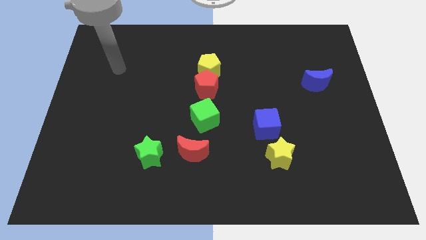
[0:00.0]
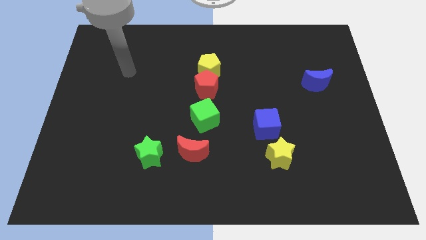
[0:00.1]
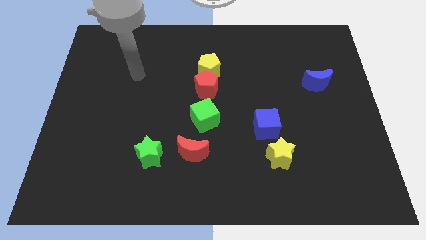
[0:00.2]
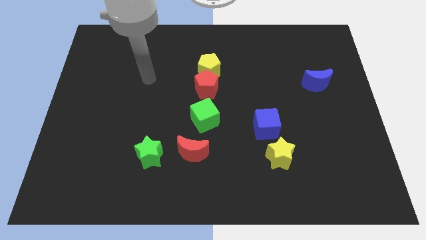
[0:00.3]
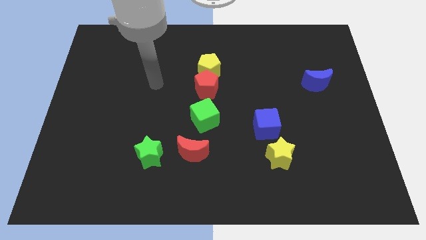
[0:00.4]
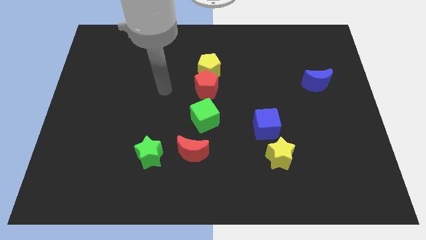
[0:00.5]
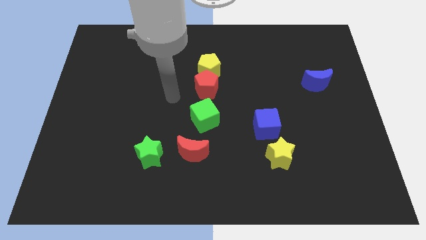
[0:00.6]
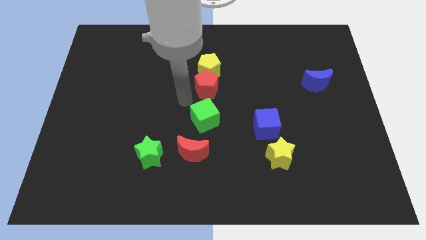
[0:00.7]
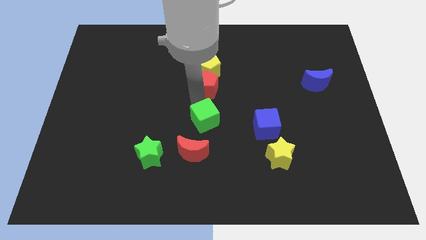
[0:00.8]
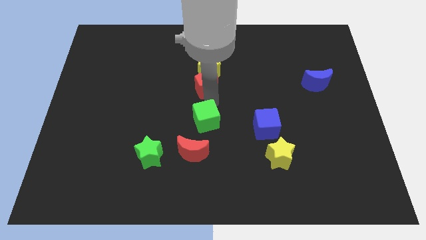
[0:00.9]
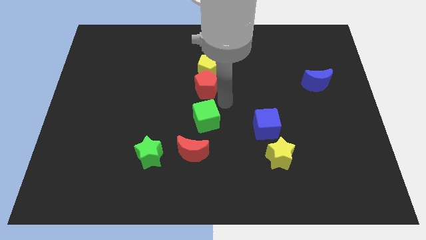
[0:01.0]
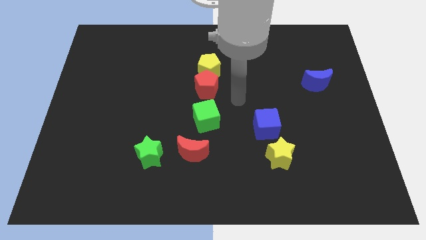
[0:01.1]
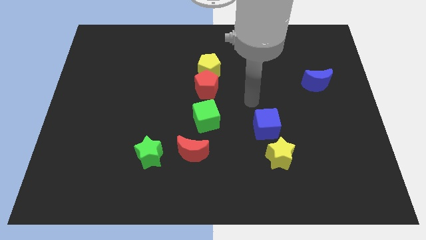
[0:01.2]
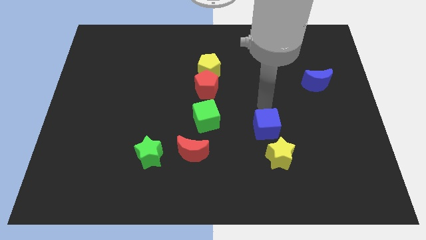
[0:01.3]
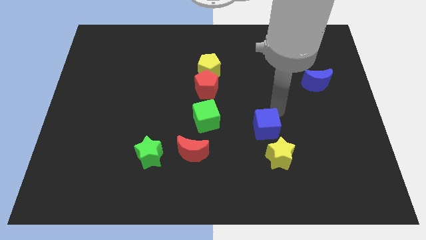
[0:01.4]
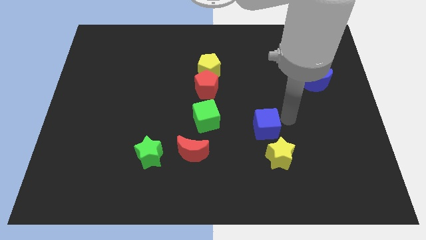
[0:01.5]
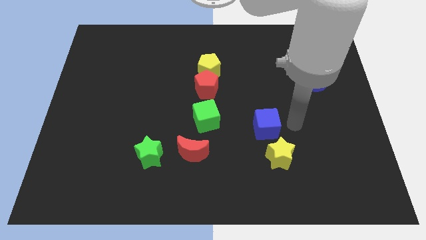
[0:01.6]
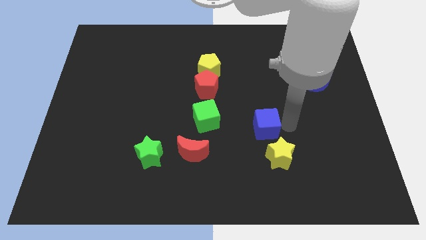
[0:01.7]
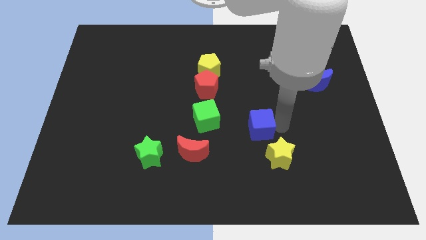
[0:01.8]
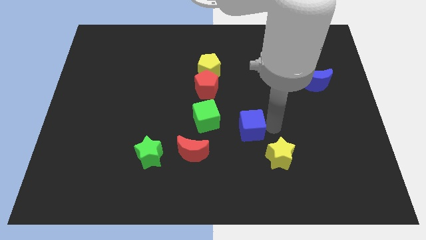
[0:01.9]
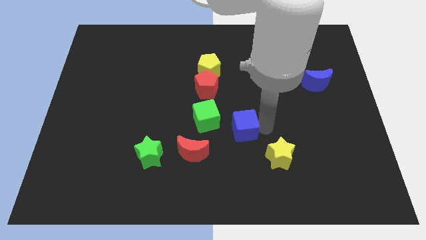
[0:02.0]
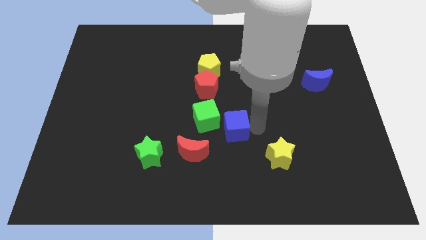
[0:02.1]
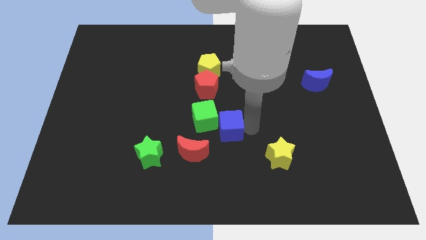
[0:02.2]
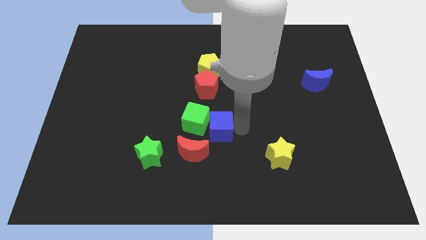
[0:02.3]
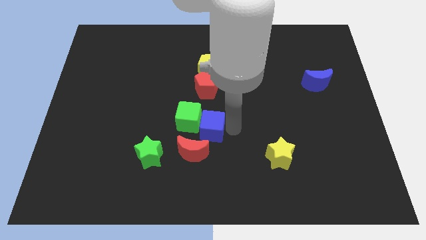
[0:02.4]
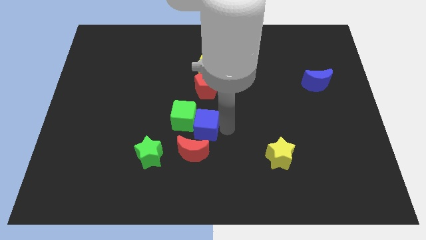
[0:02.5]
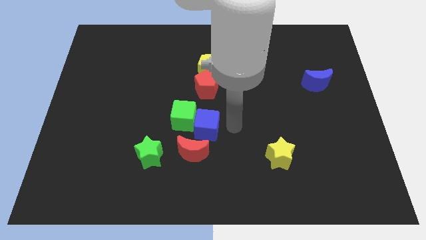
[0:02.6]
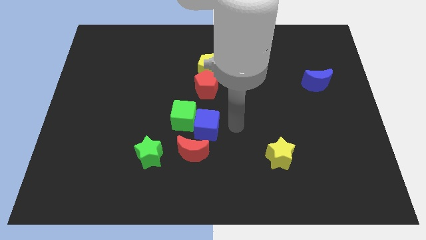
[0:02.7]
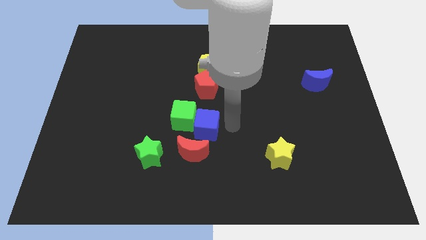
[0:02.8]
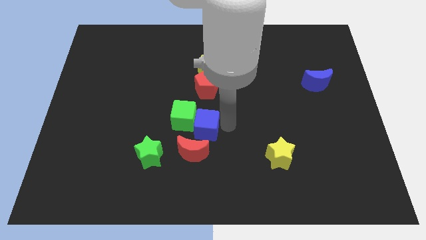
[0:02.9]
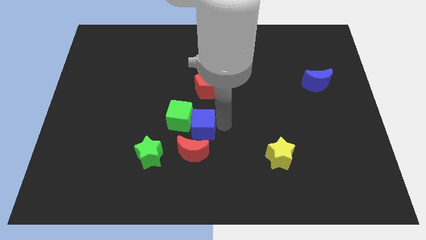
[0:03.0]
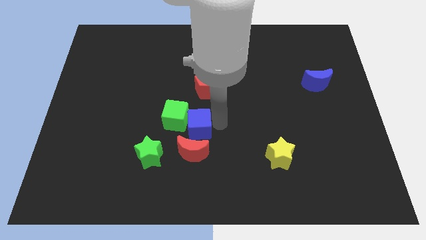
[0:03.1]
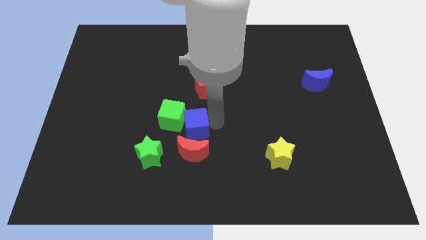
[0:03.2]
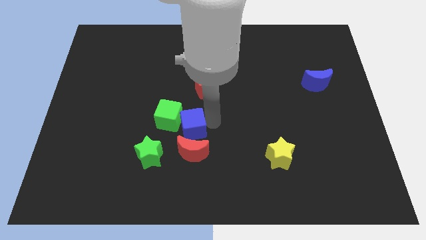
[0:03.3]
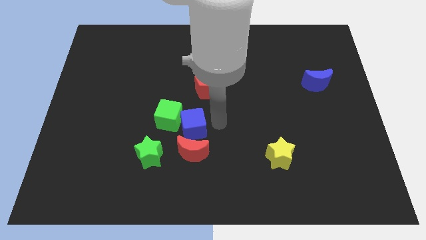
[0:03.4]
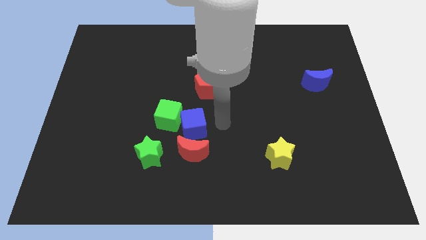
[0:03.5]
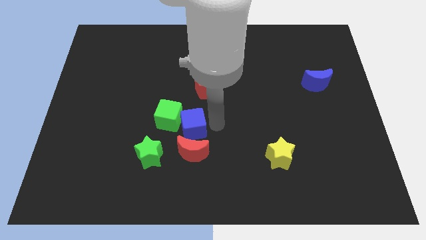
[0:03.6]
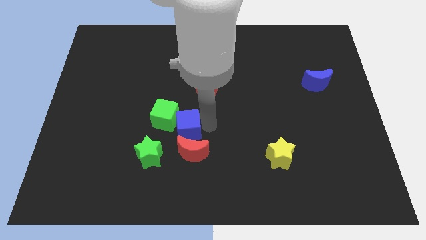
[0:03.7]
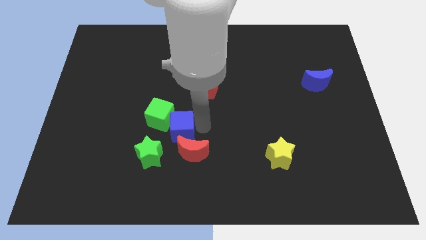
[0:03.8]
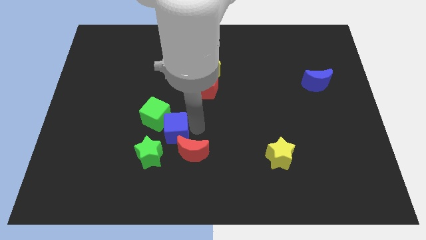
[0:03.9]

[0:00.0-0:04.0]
push the blue cube left

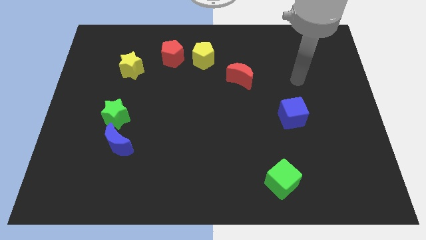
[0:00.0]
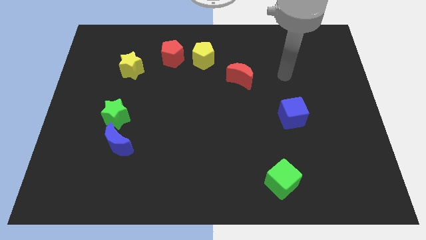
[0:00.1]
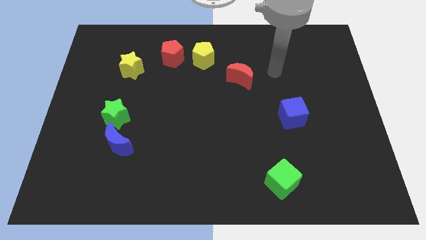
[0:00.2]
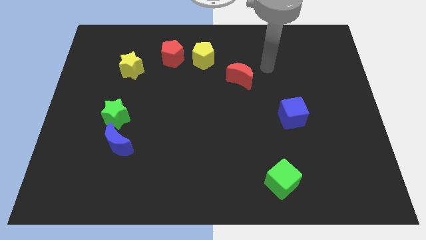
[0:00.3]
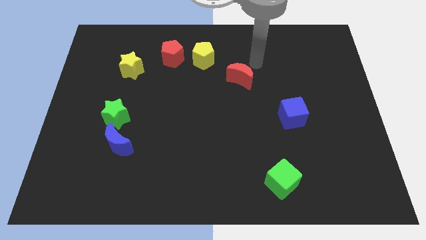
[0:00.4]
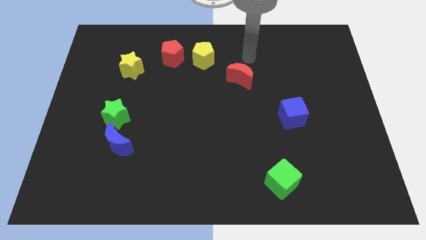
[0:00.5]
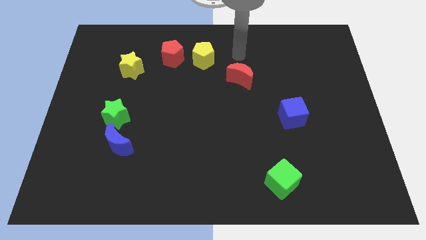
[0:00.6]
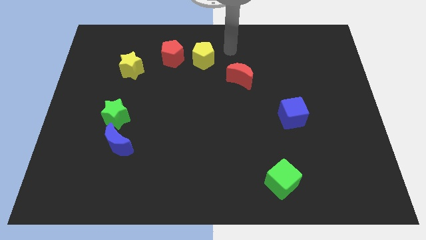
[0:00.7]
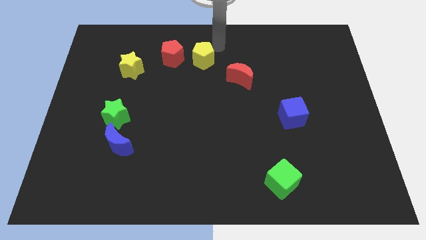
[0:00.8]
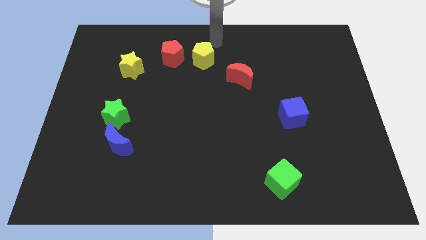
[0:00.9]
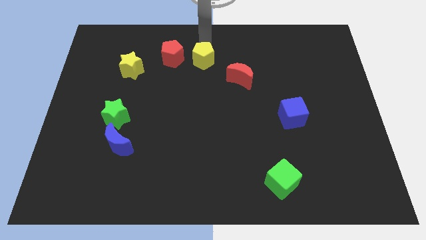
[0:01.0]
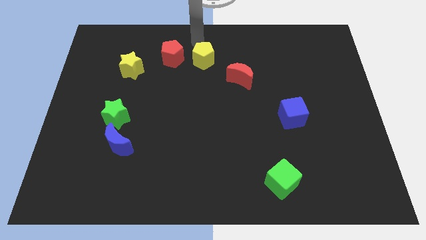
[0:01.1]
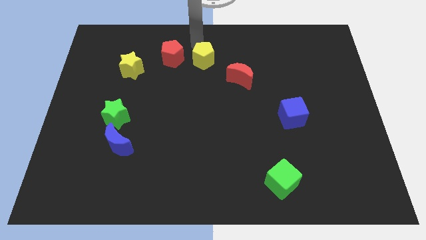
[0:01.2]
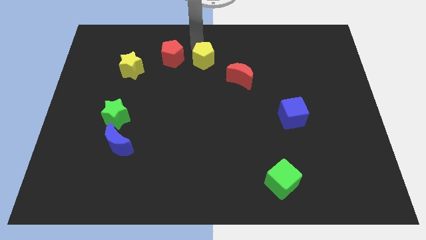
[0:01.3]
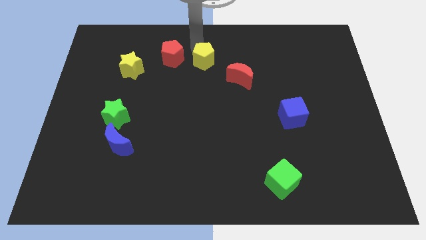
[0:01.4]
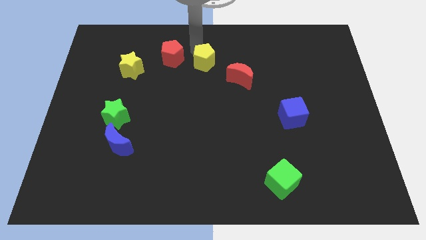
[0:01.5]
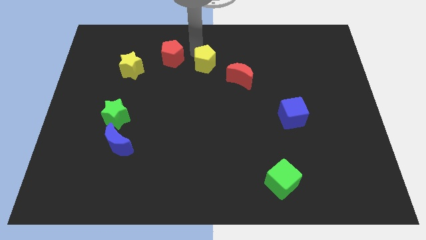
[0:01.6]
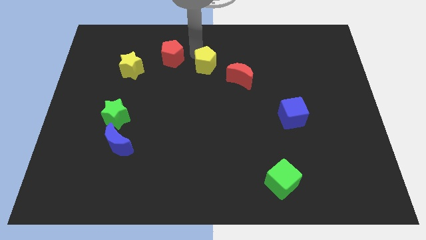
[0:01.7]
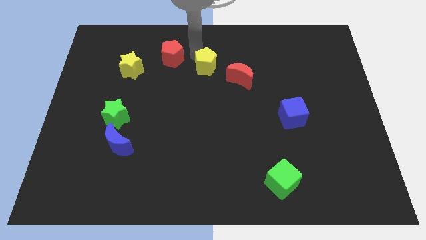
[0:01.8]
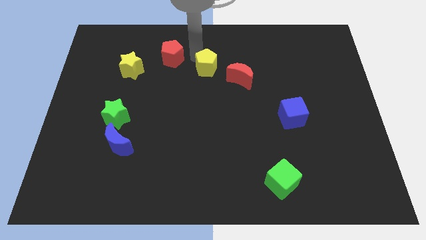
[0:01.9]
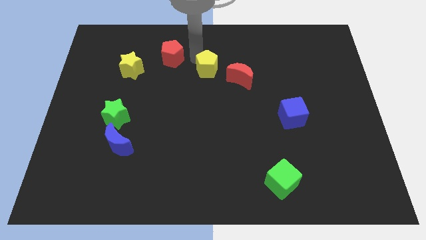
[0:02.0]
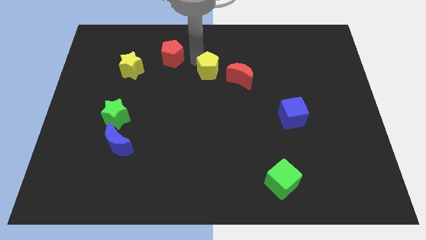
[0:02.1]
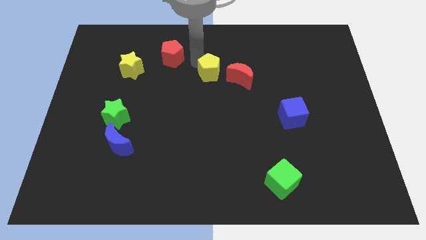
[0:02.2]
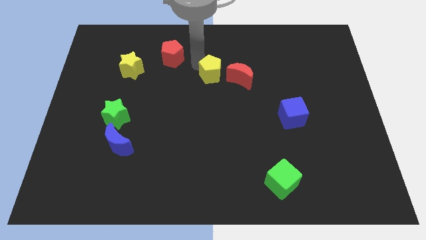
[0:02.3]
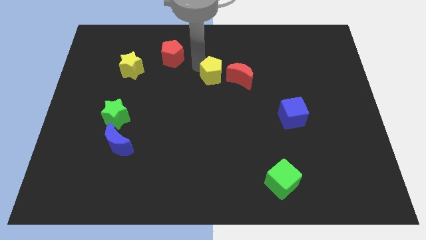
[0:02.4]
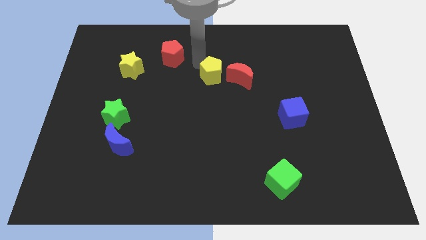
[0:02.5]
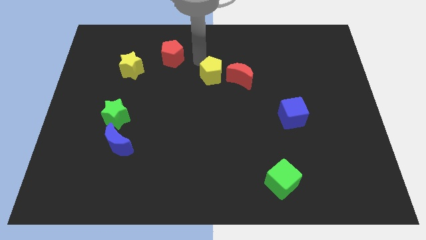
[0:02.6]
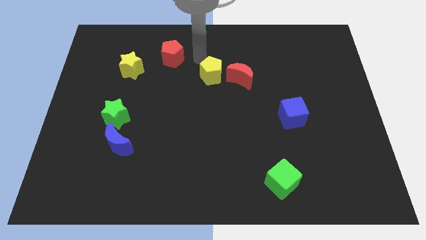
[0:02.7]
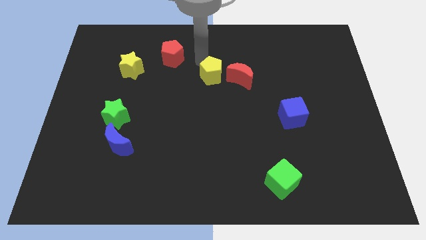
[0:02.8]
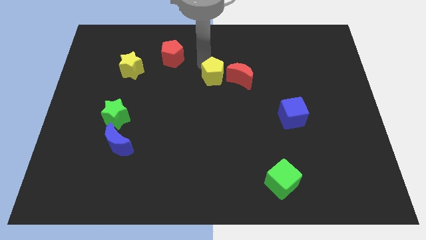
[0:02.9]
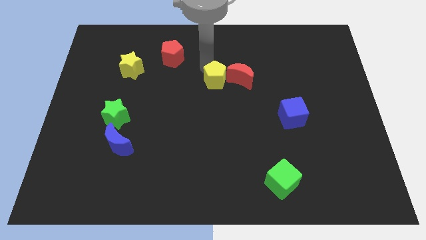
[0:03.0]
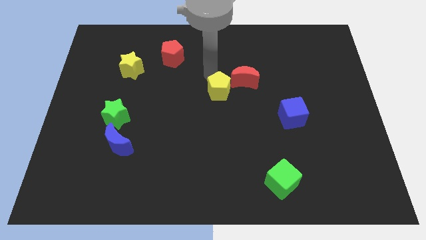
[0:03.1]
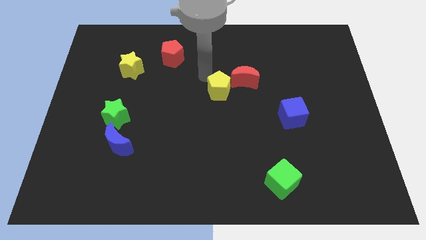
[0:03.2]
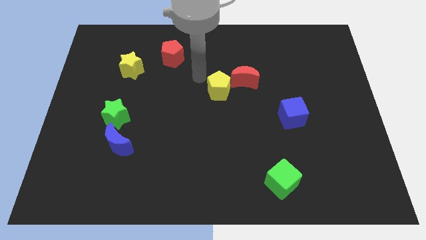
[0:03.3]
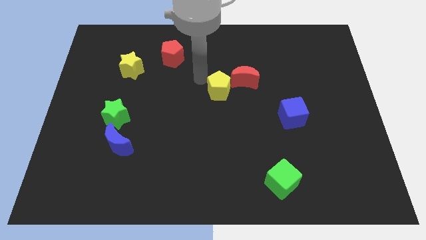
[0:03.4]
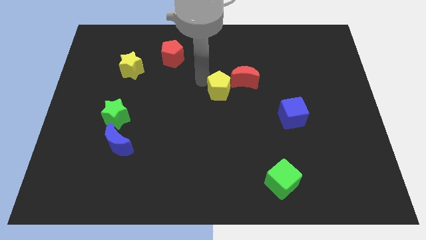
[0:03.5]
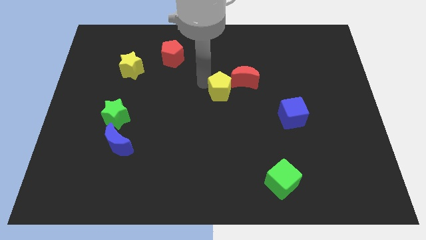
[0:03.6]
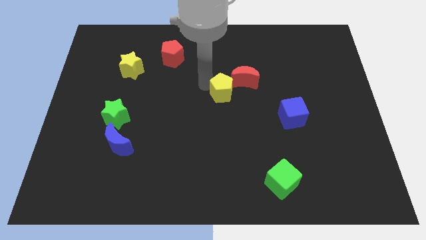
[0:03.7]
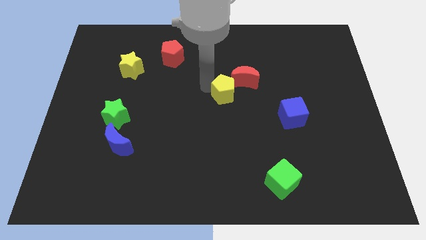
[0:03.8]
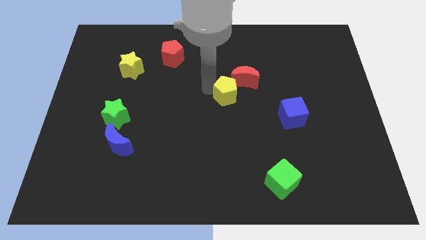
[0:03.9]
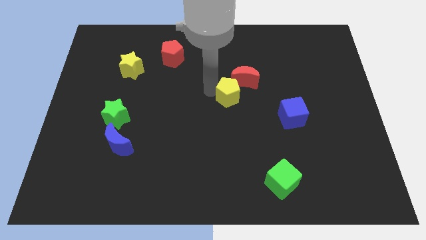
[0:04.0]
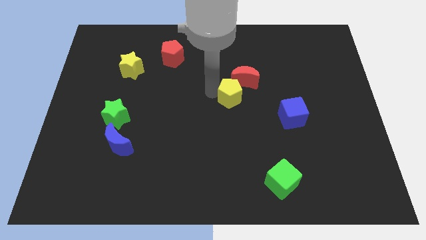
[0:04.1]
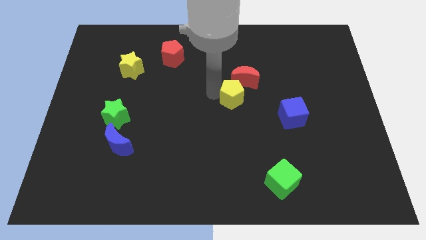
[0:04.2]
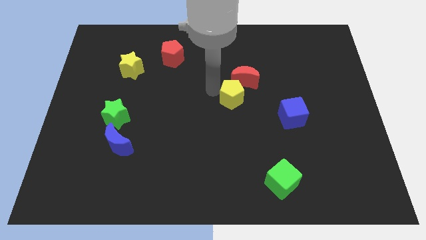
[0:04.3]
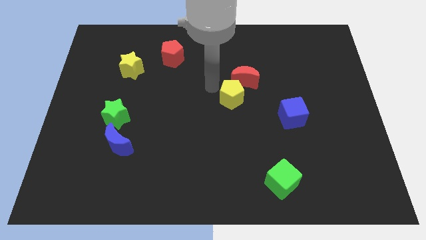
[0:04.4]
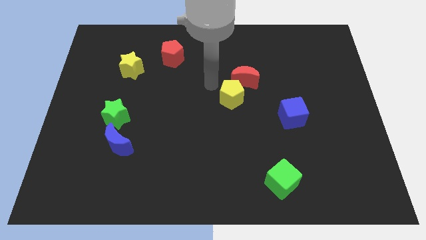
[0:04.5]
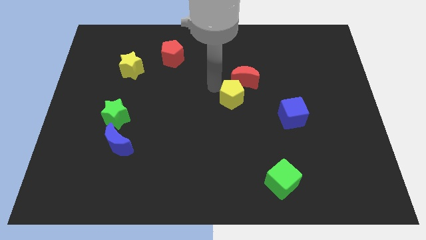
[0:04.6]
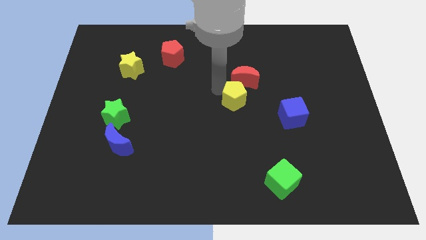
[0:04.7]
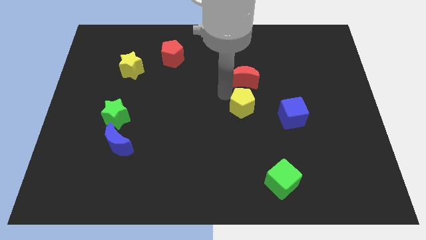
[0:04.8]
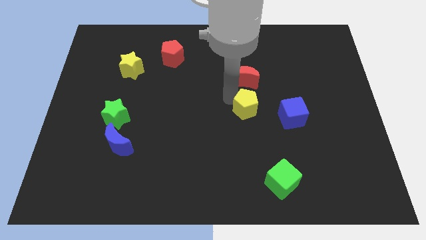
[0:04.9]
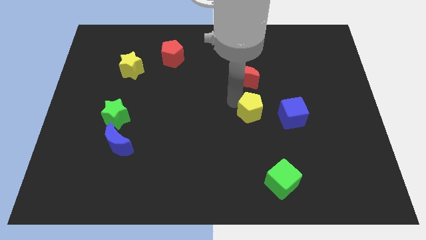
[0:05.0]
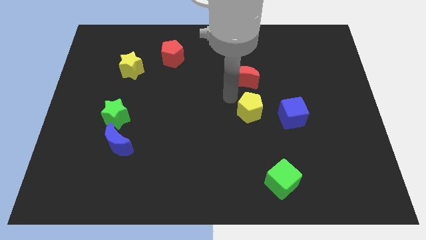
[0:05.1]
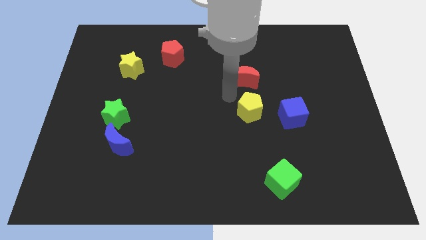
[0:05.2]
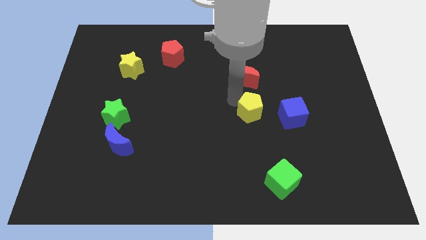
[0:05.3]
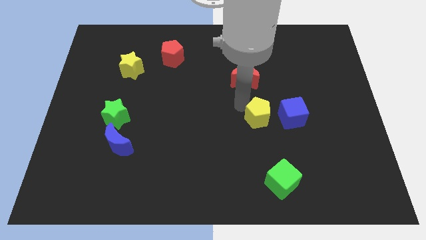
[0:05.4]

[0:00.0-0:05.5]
slide the yellow pentagon down and then right
